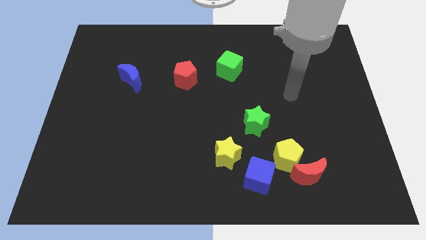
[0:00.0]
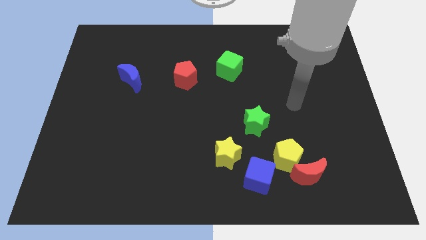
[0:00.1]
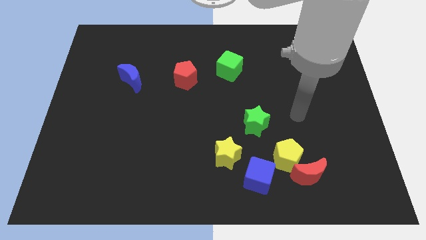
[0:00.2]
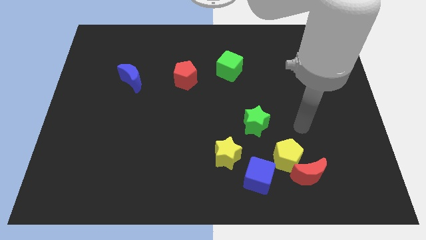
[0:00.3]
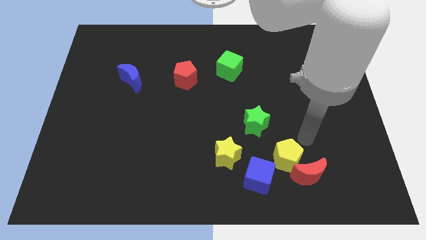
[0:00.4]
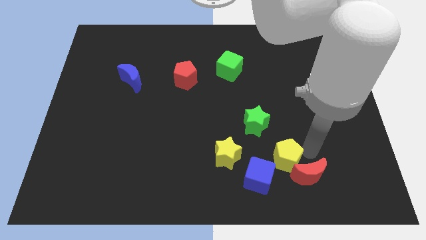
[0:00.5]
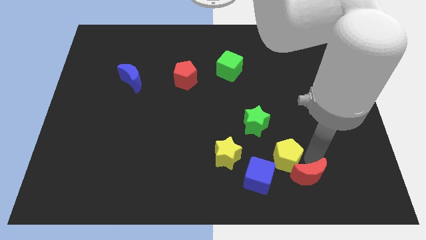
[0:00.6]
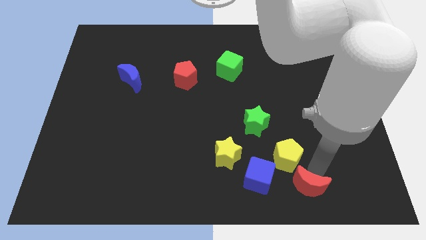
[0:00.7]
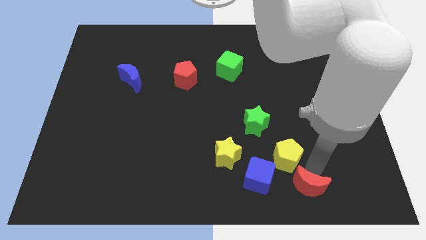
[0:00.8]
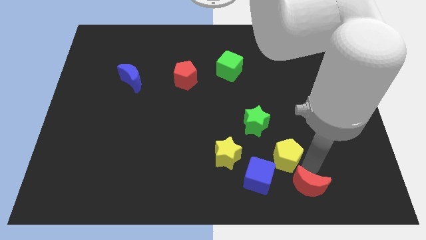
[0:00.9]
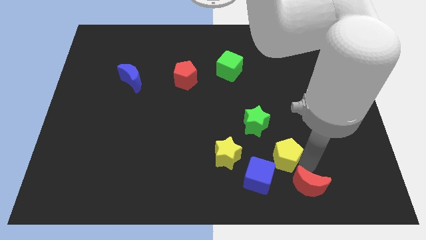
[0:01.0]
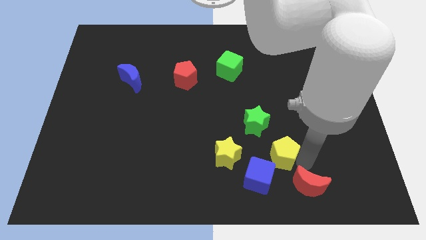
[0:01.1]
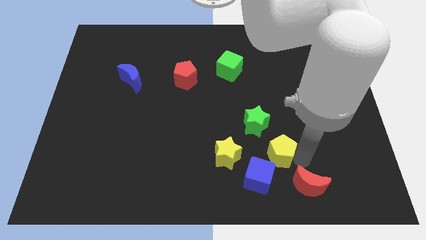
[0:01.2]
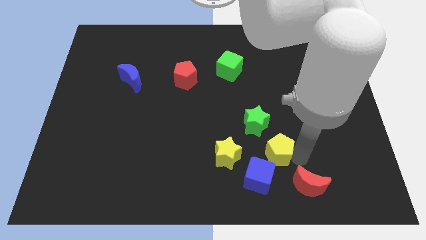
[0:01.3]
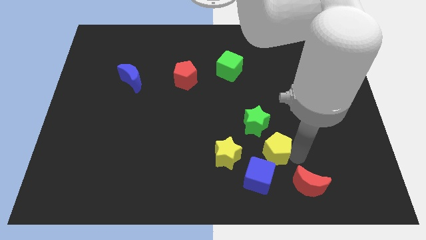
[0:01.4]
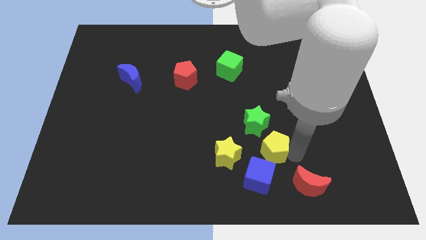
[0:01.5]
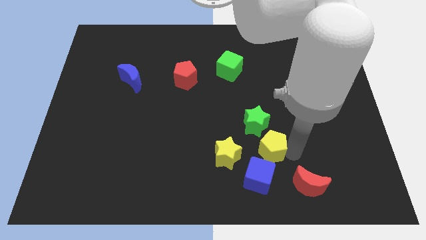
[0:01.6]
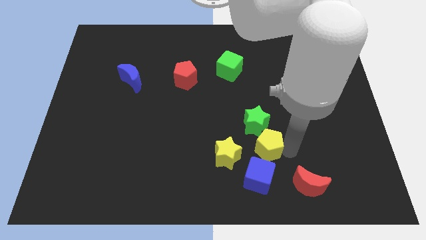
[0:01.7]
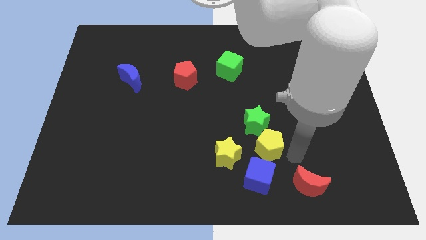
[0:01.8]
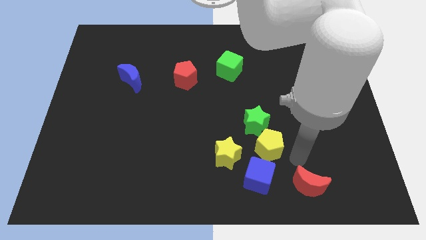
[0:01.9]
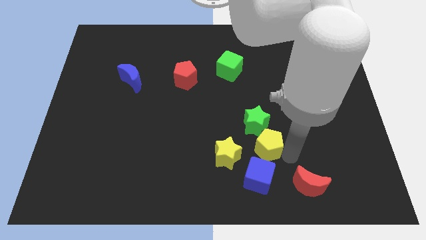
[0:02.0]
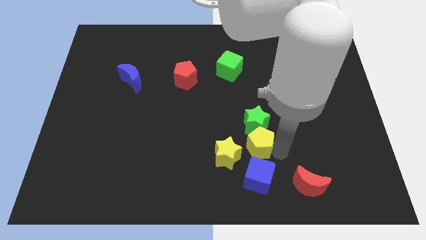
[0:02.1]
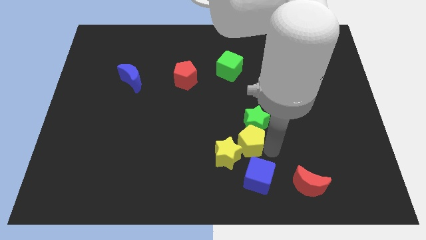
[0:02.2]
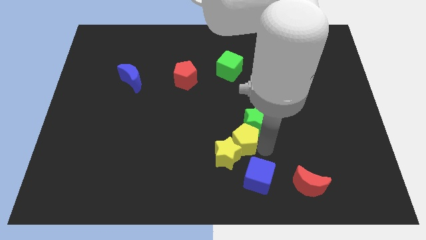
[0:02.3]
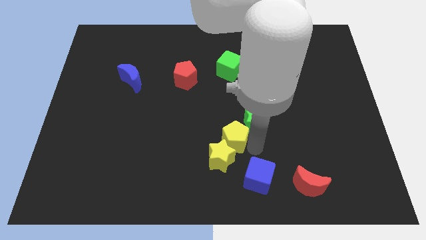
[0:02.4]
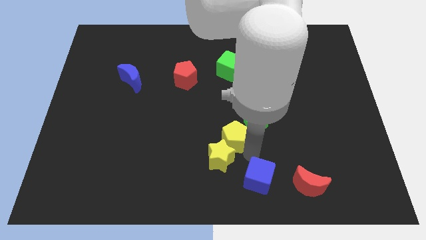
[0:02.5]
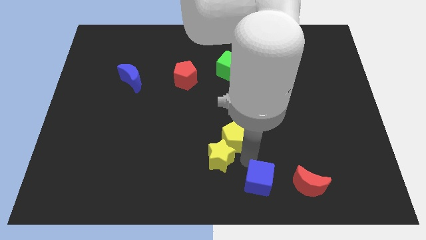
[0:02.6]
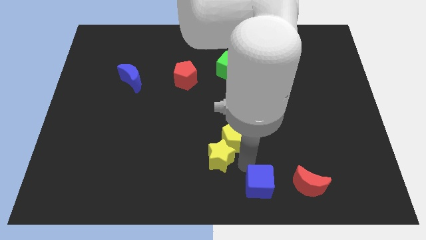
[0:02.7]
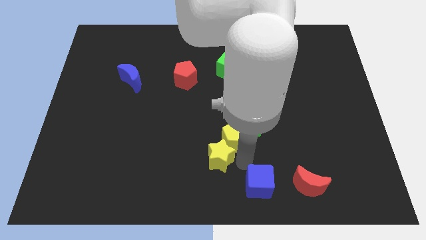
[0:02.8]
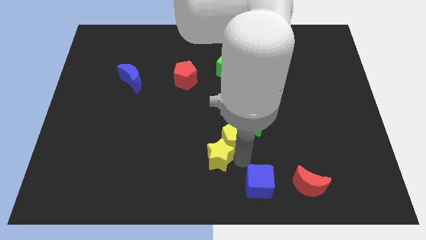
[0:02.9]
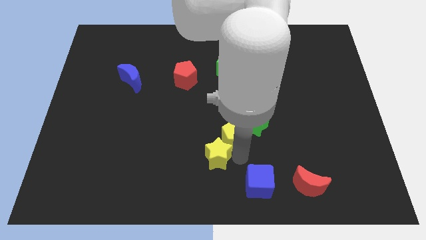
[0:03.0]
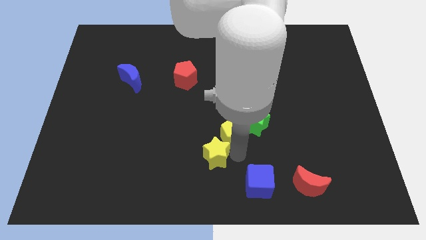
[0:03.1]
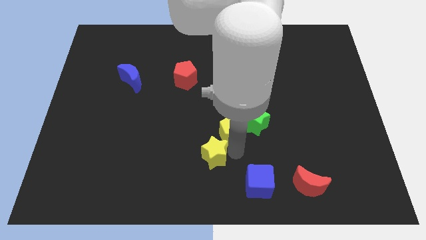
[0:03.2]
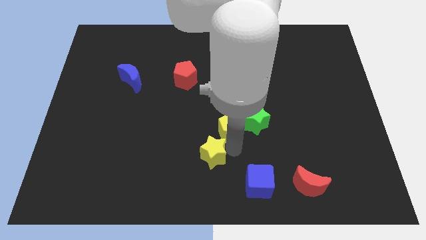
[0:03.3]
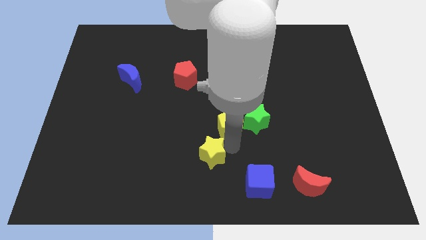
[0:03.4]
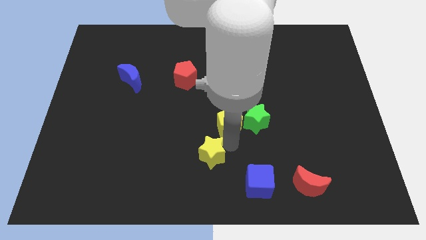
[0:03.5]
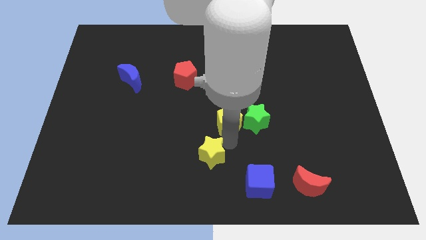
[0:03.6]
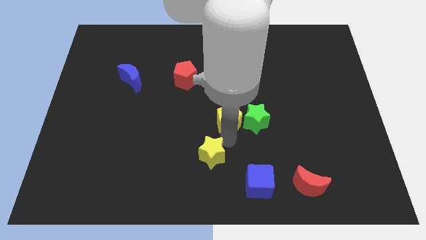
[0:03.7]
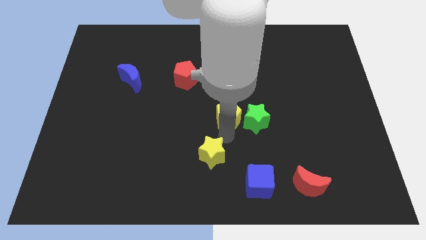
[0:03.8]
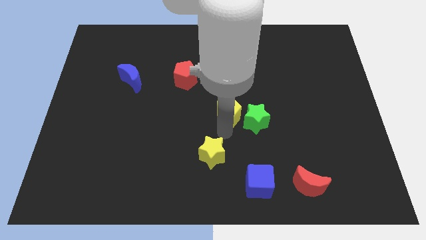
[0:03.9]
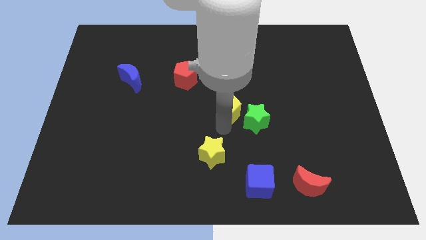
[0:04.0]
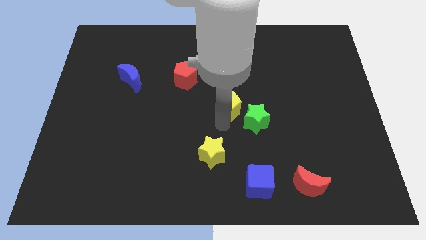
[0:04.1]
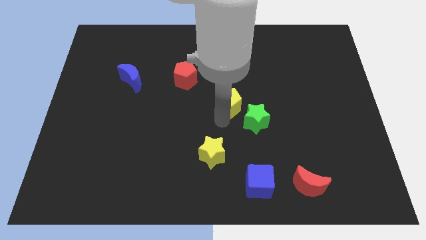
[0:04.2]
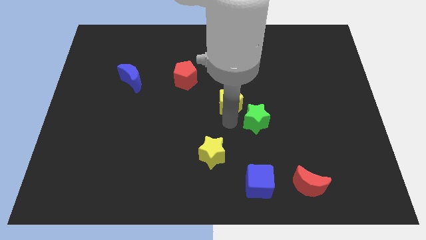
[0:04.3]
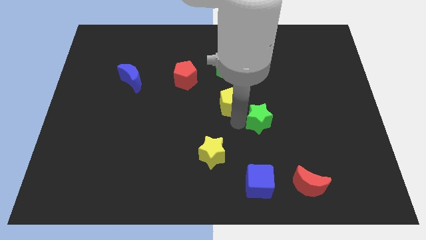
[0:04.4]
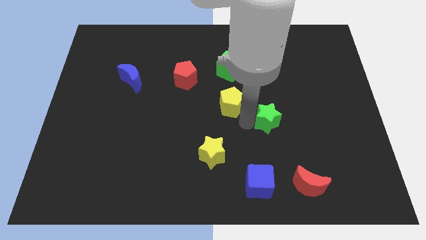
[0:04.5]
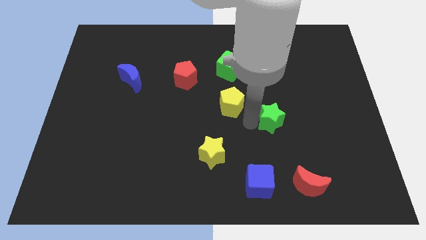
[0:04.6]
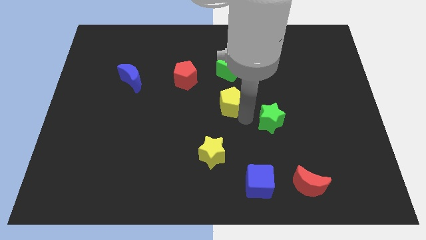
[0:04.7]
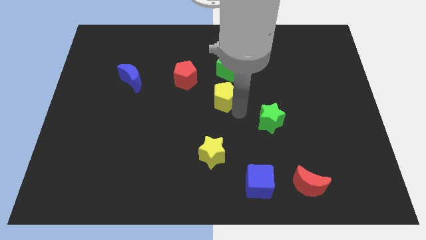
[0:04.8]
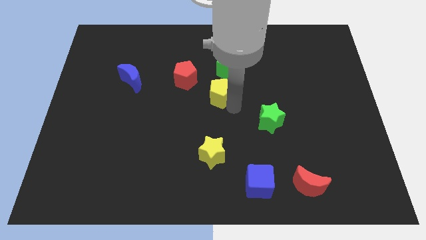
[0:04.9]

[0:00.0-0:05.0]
move the yellow pentagon to the bottom left of the green cube

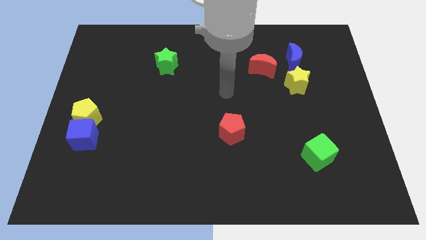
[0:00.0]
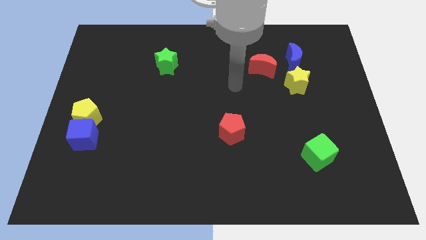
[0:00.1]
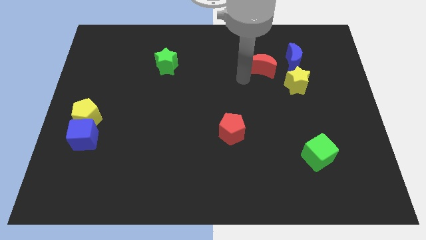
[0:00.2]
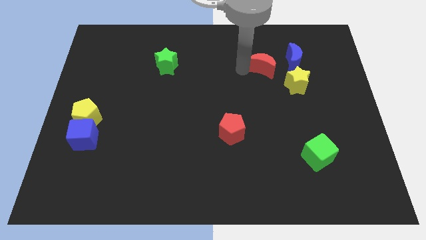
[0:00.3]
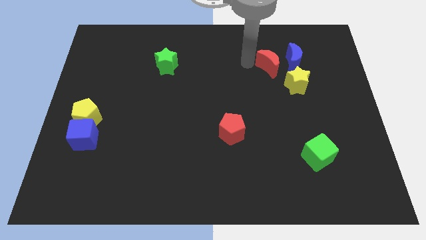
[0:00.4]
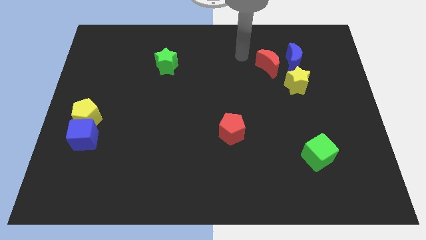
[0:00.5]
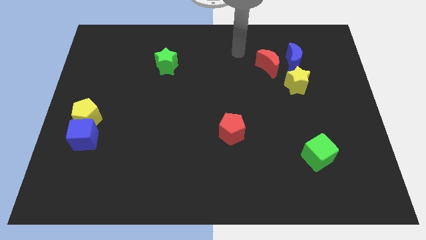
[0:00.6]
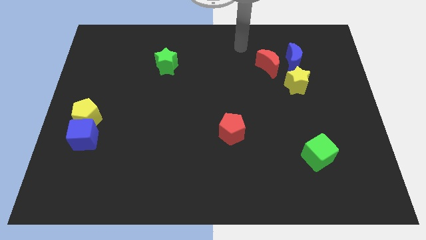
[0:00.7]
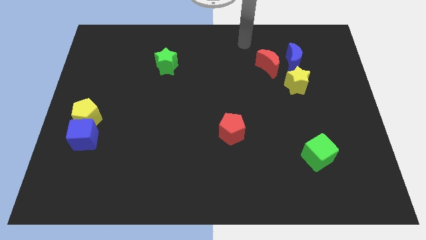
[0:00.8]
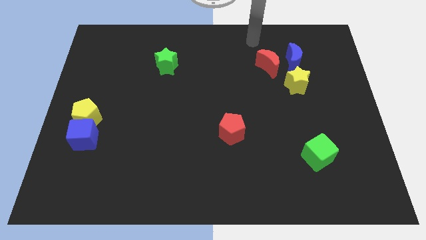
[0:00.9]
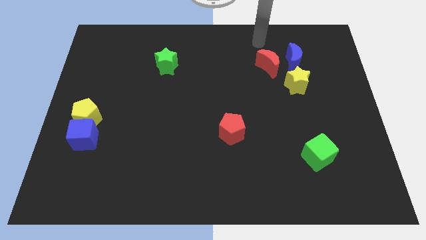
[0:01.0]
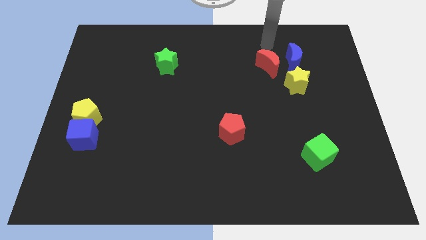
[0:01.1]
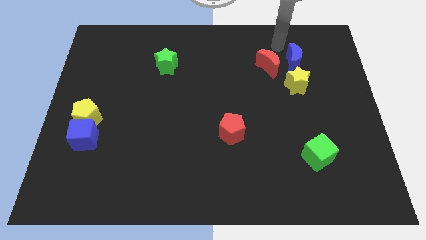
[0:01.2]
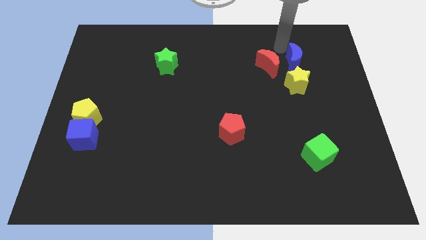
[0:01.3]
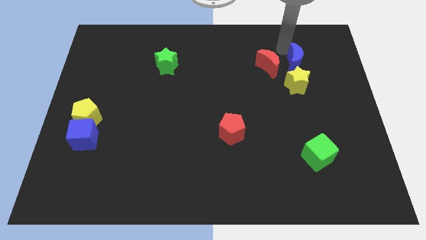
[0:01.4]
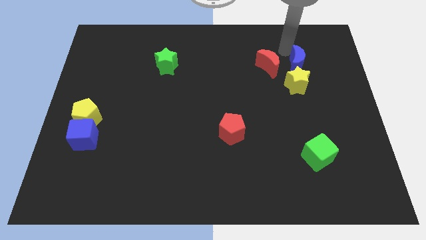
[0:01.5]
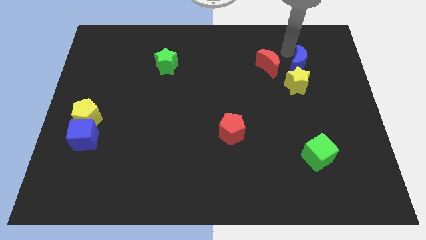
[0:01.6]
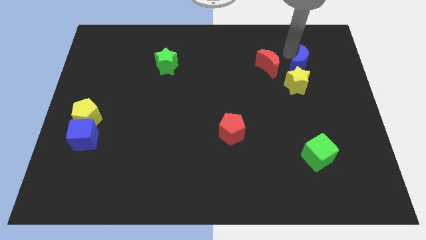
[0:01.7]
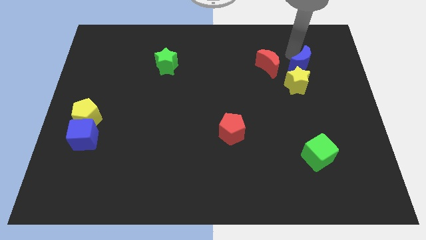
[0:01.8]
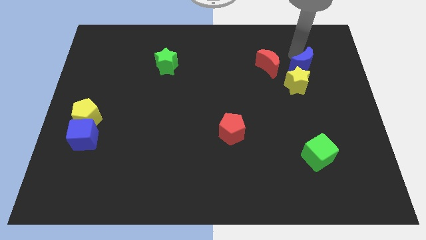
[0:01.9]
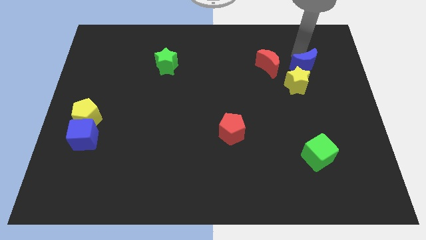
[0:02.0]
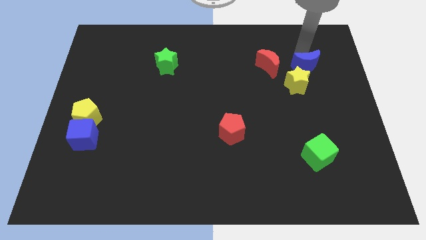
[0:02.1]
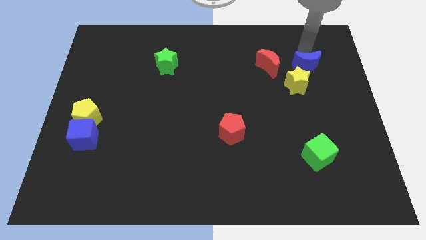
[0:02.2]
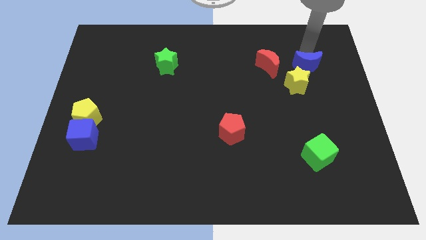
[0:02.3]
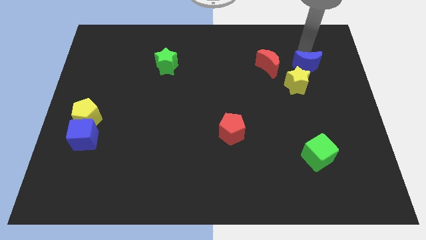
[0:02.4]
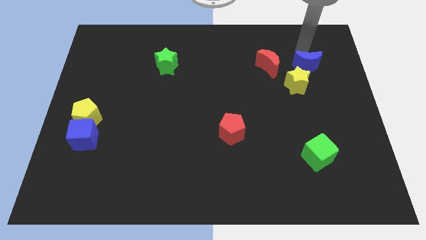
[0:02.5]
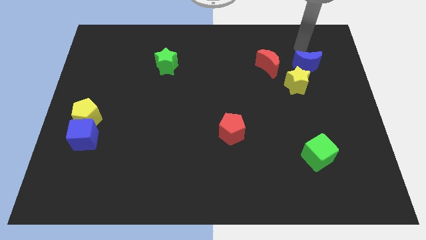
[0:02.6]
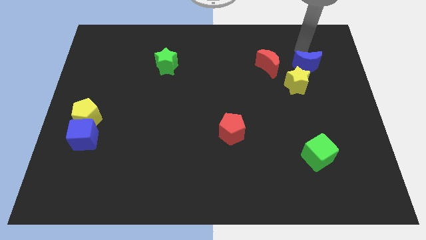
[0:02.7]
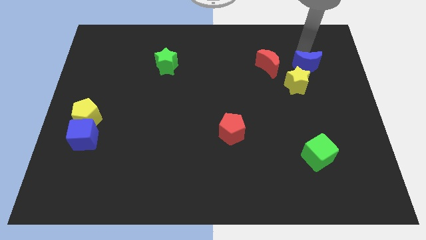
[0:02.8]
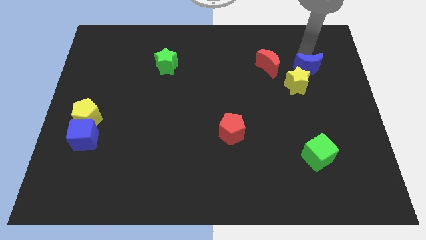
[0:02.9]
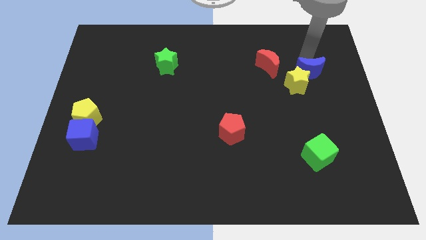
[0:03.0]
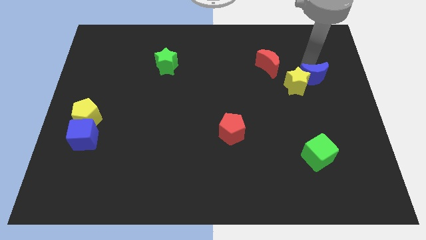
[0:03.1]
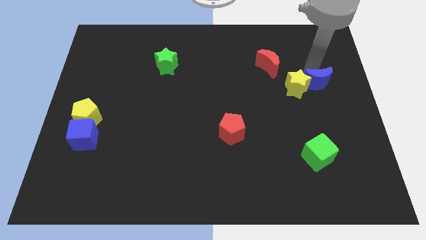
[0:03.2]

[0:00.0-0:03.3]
move the blue moon to the bottom right of the yellow star

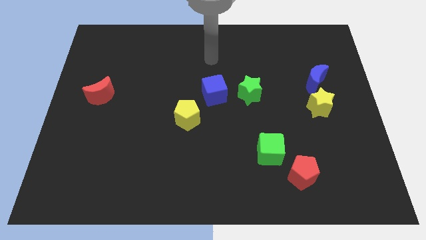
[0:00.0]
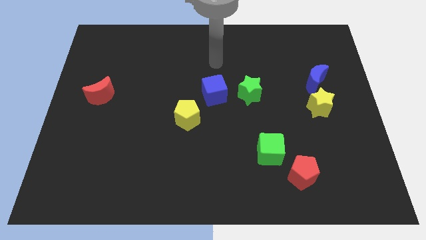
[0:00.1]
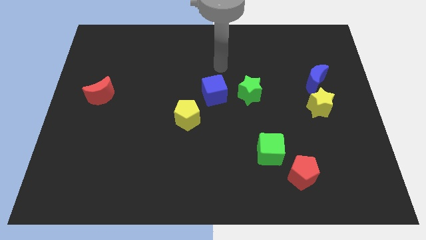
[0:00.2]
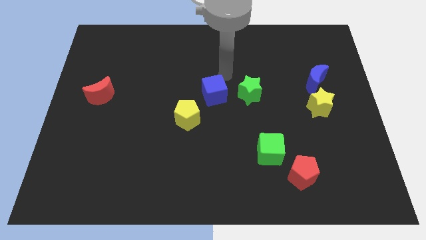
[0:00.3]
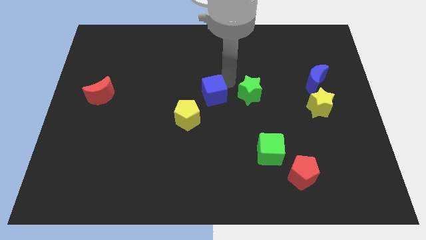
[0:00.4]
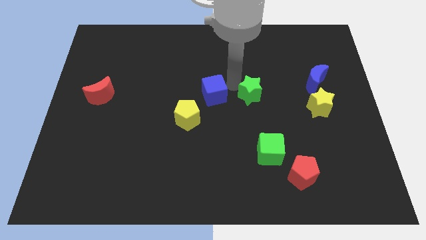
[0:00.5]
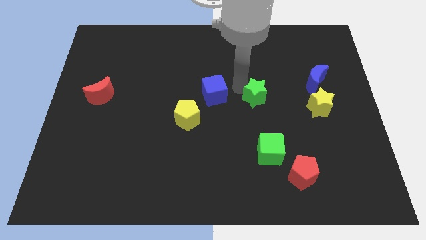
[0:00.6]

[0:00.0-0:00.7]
move the green star just left of the yellow star
